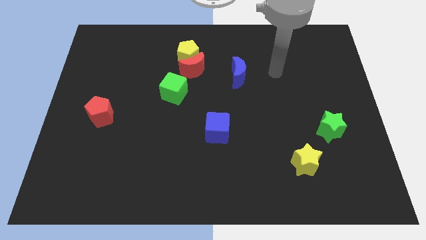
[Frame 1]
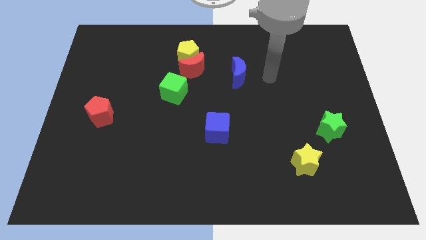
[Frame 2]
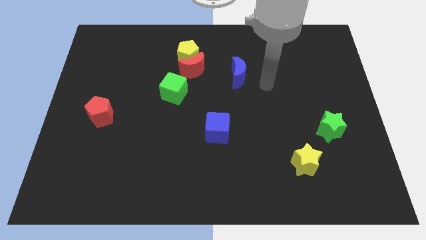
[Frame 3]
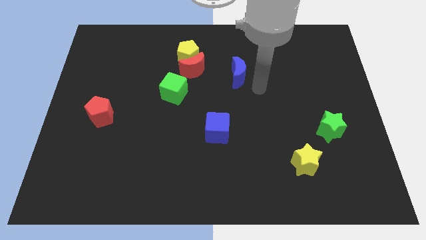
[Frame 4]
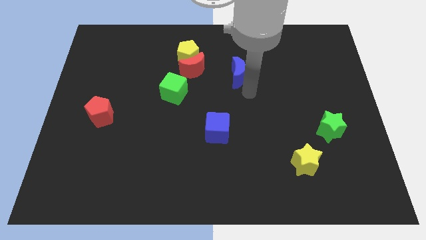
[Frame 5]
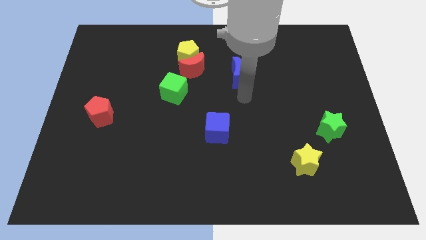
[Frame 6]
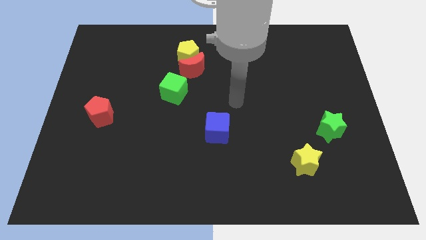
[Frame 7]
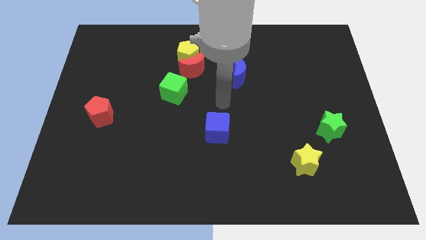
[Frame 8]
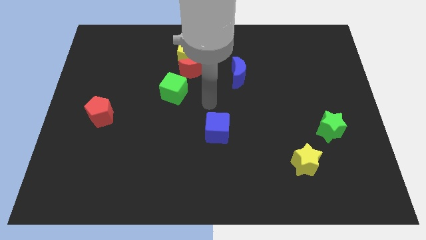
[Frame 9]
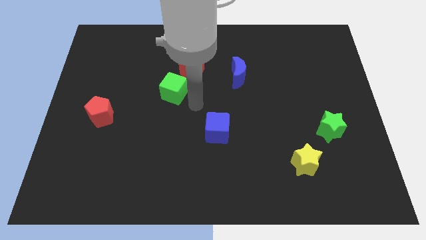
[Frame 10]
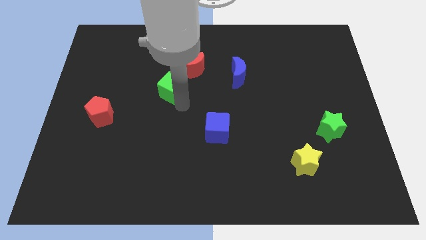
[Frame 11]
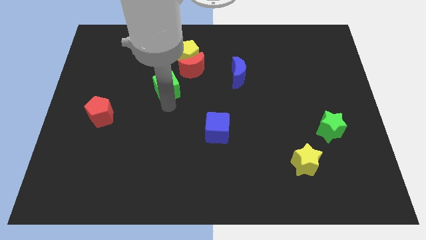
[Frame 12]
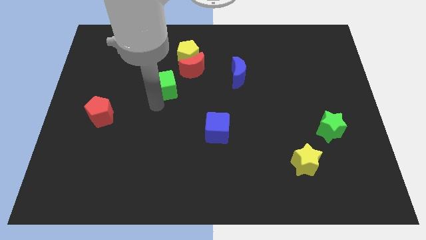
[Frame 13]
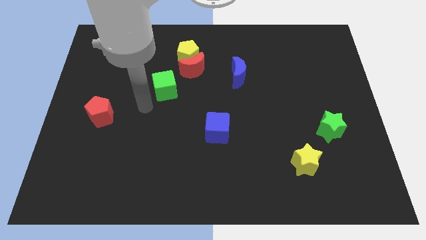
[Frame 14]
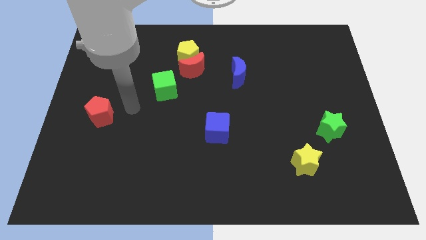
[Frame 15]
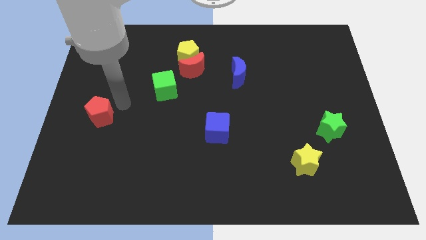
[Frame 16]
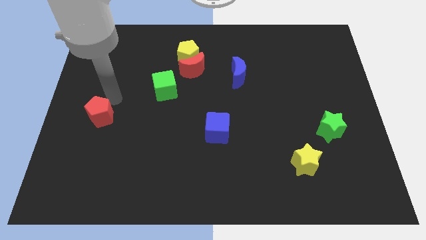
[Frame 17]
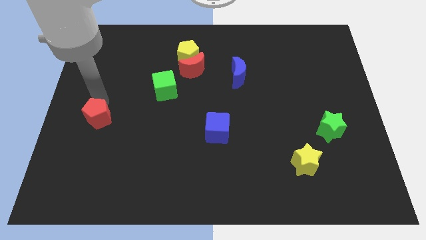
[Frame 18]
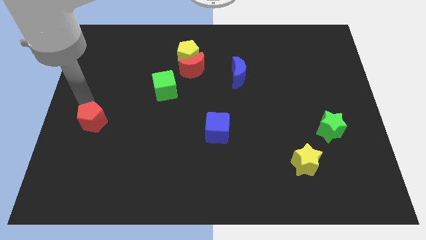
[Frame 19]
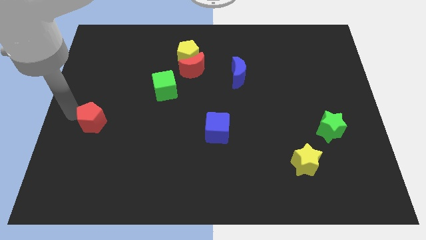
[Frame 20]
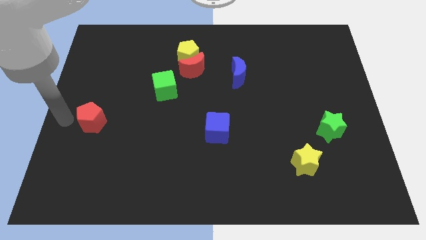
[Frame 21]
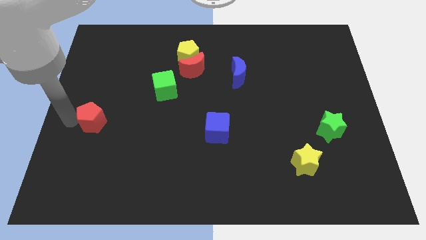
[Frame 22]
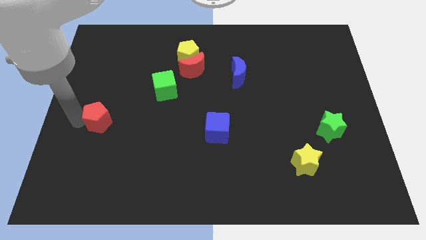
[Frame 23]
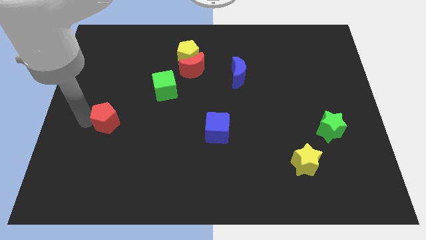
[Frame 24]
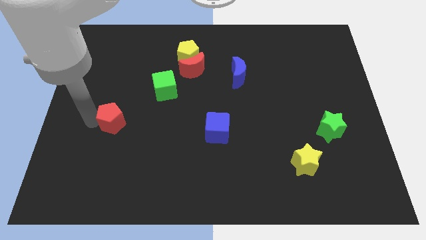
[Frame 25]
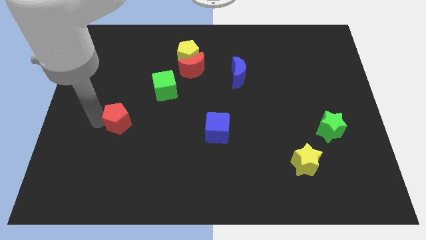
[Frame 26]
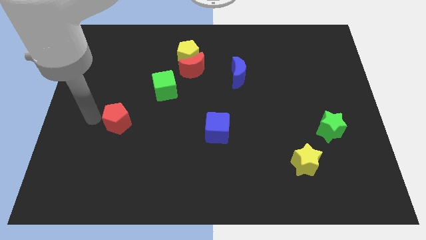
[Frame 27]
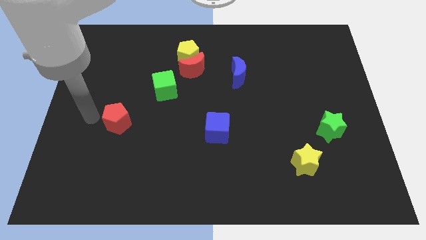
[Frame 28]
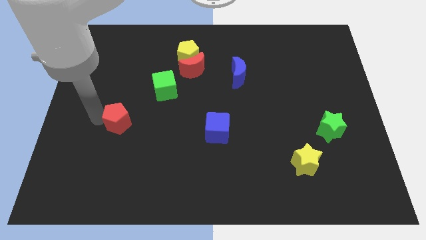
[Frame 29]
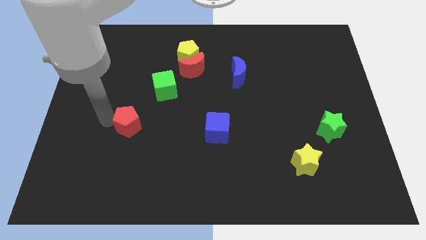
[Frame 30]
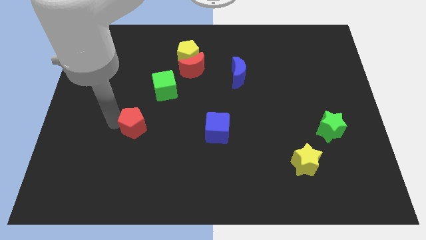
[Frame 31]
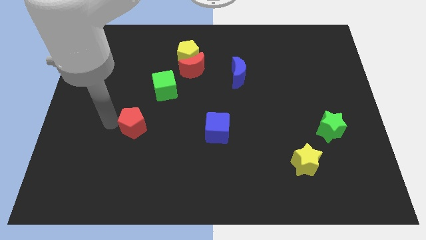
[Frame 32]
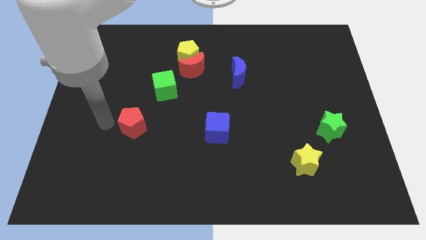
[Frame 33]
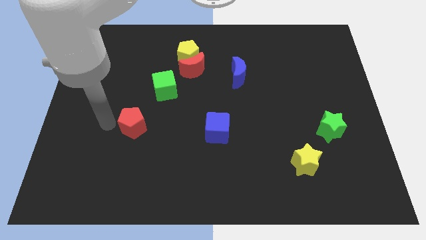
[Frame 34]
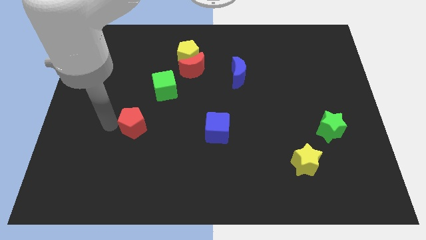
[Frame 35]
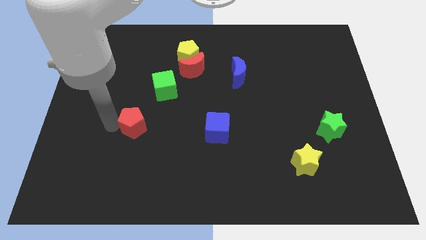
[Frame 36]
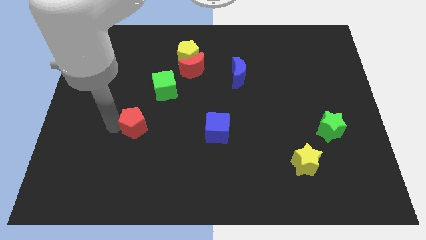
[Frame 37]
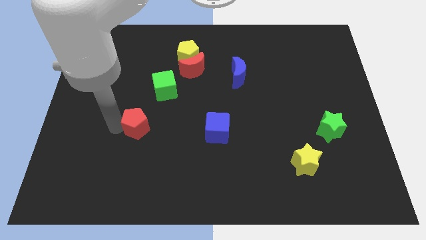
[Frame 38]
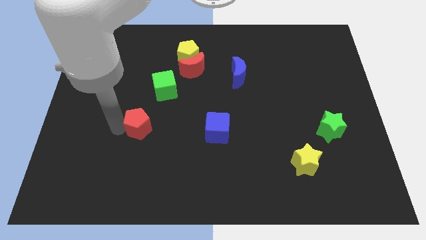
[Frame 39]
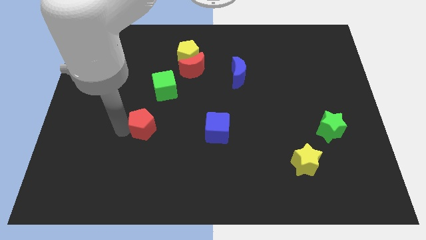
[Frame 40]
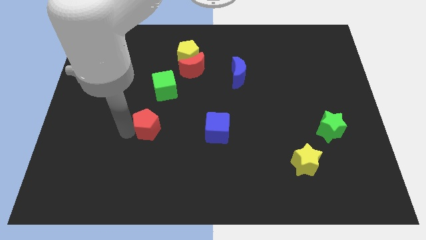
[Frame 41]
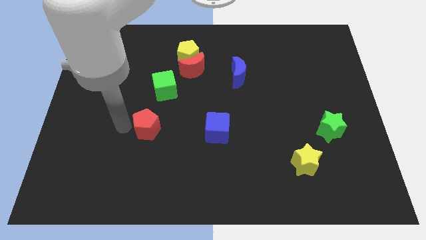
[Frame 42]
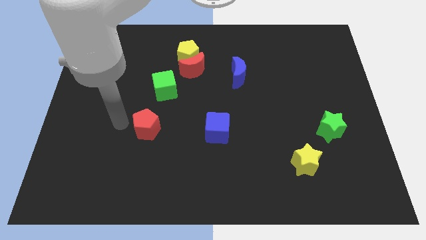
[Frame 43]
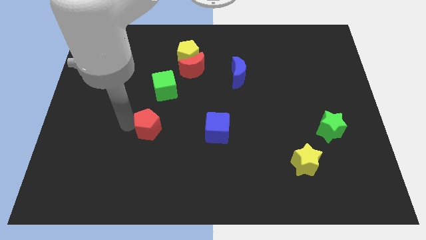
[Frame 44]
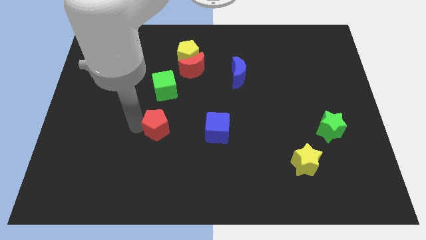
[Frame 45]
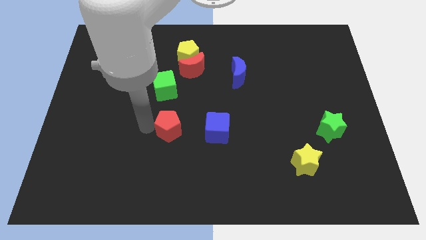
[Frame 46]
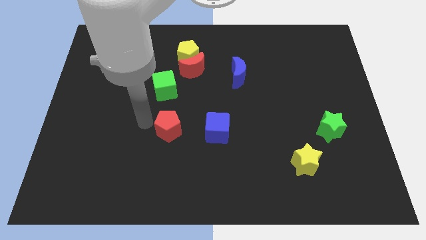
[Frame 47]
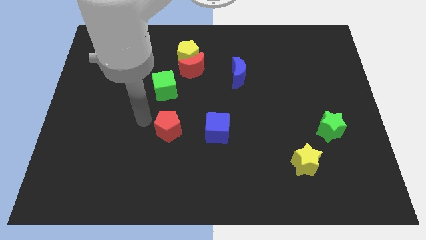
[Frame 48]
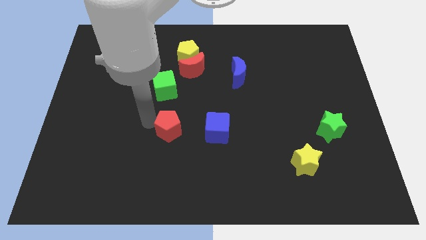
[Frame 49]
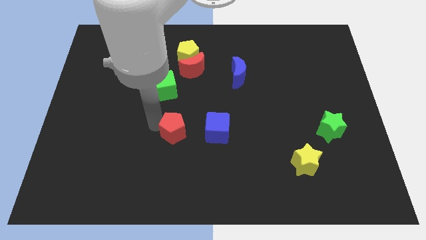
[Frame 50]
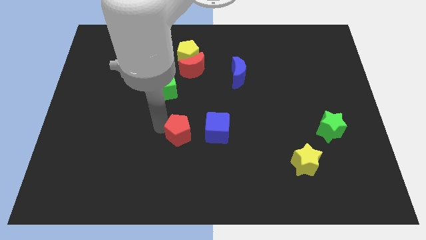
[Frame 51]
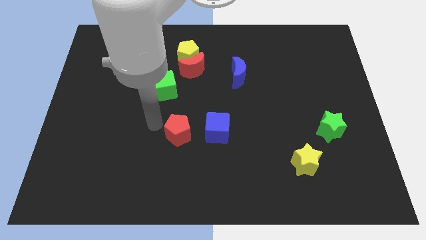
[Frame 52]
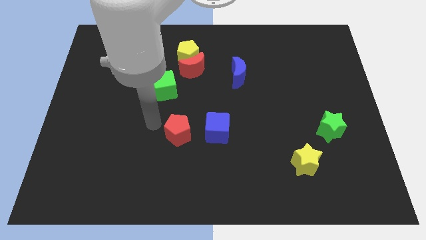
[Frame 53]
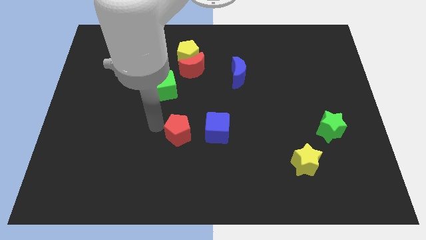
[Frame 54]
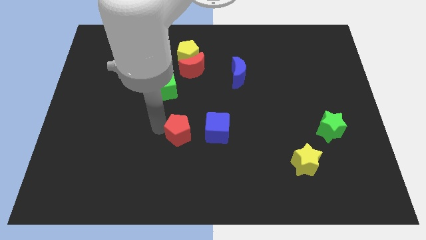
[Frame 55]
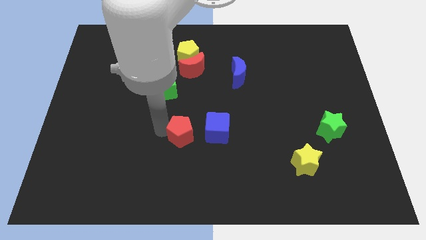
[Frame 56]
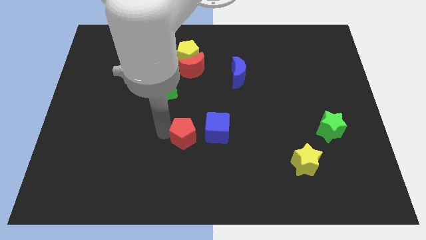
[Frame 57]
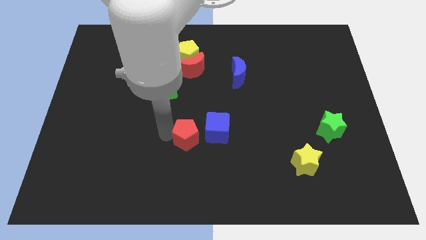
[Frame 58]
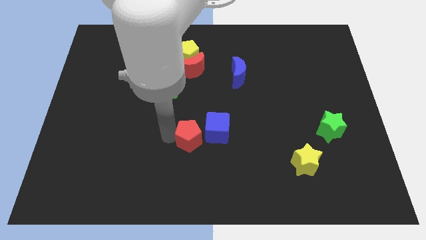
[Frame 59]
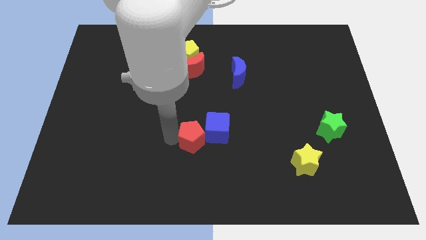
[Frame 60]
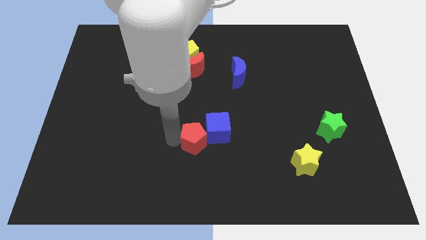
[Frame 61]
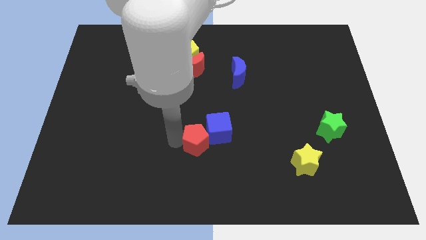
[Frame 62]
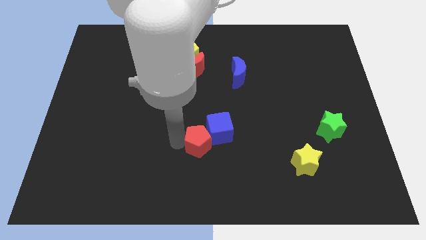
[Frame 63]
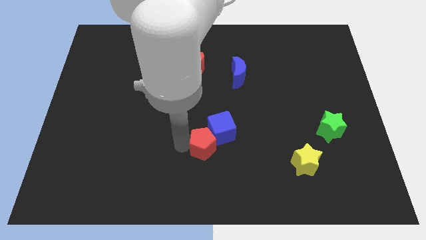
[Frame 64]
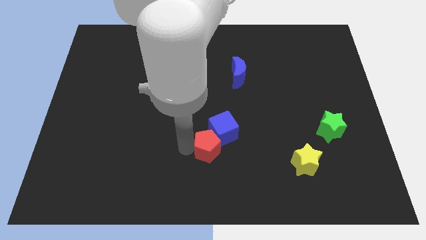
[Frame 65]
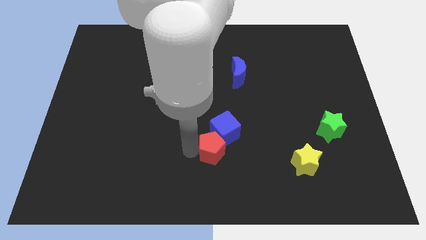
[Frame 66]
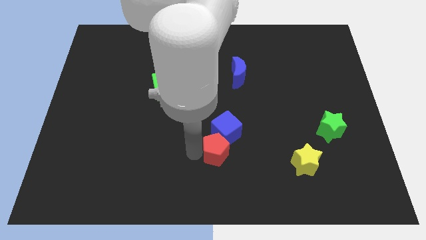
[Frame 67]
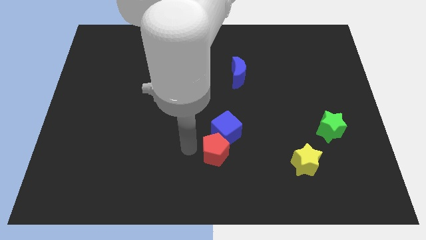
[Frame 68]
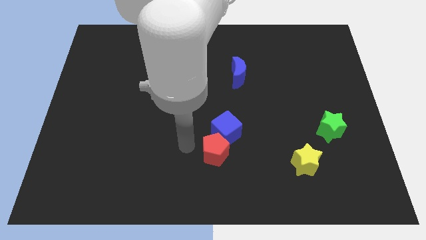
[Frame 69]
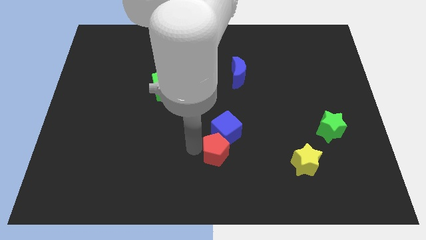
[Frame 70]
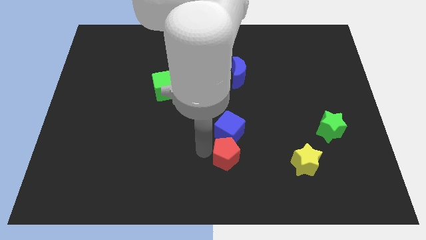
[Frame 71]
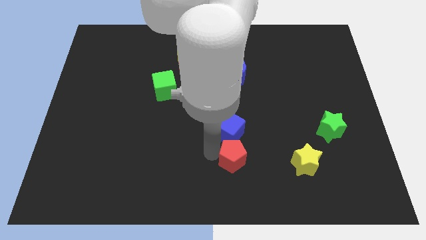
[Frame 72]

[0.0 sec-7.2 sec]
slide the red pentagon to the left of the yellow star
